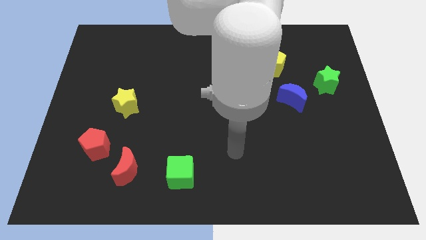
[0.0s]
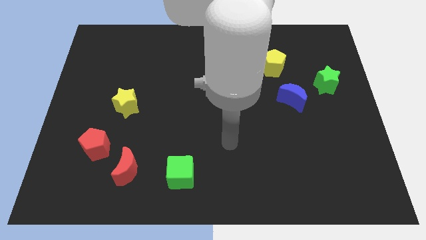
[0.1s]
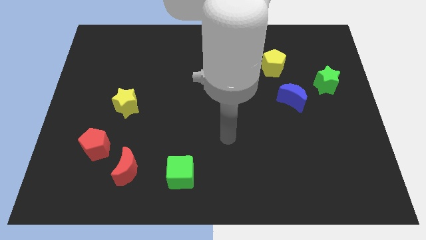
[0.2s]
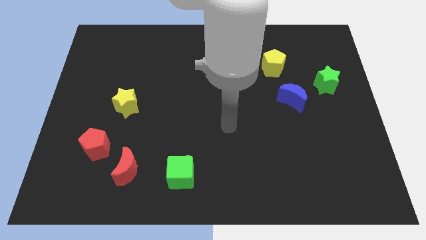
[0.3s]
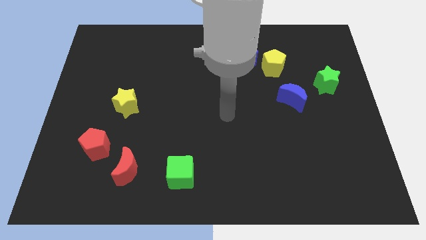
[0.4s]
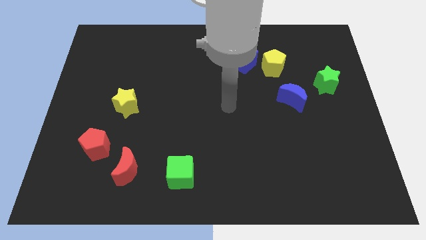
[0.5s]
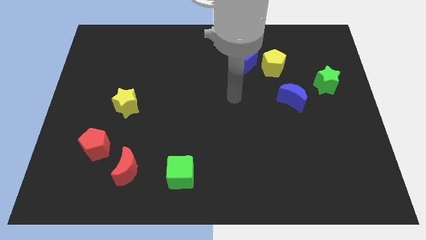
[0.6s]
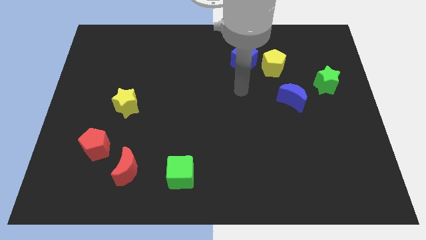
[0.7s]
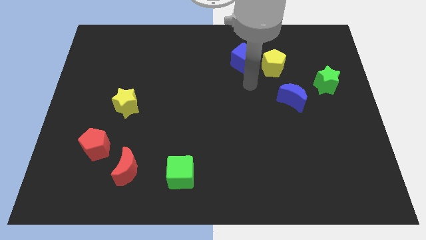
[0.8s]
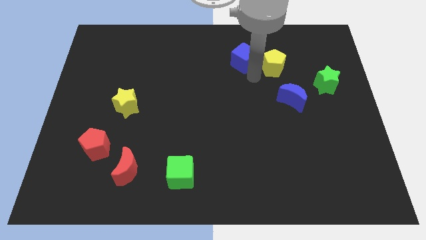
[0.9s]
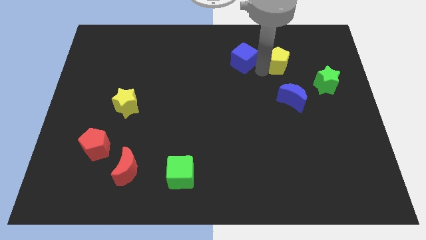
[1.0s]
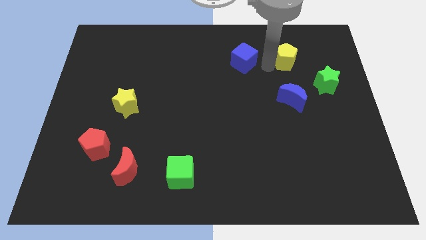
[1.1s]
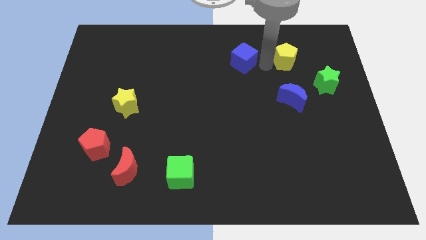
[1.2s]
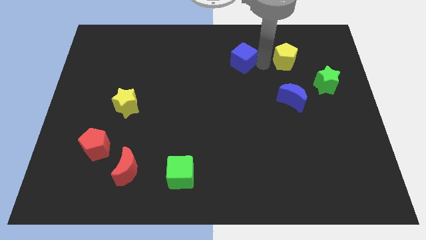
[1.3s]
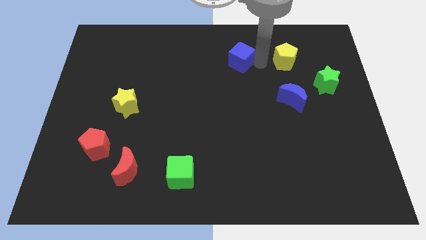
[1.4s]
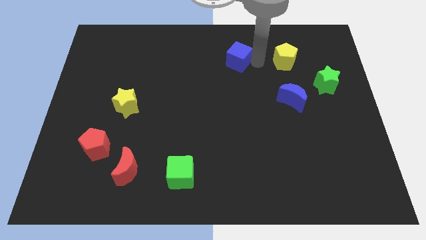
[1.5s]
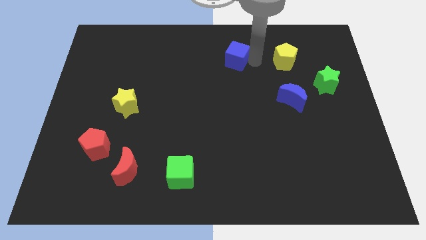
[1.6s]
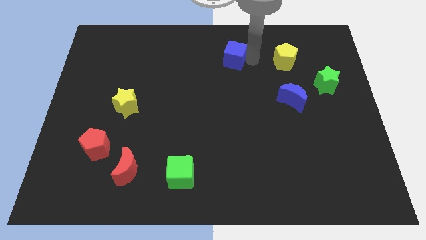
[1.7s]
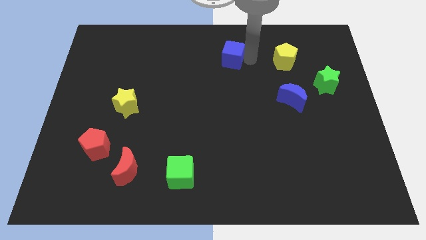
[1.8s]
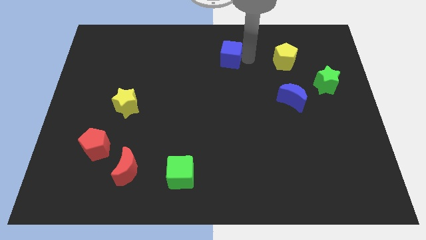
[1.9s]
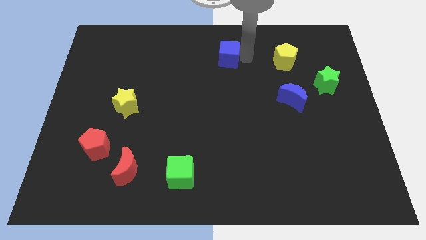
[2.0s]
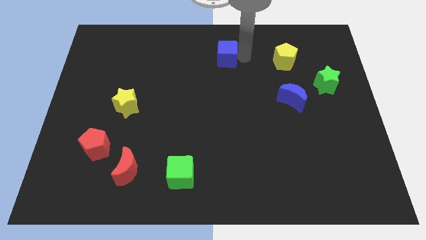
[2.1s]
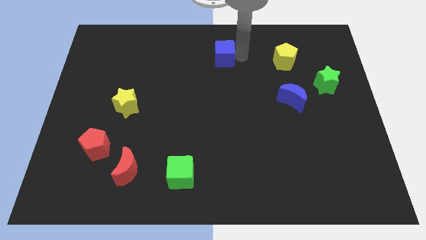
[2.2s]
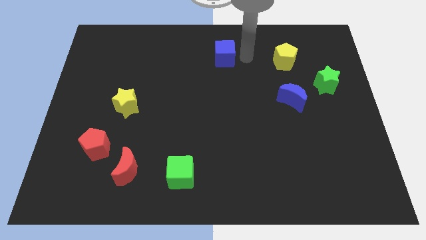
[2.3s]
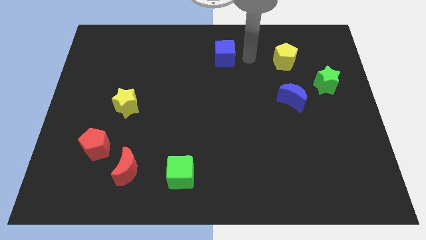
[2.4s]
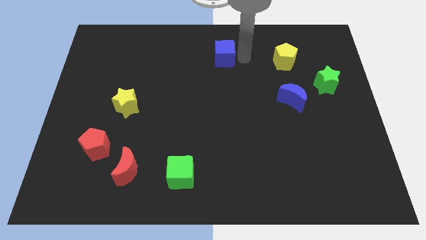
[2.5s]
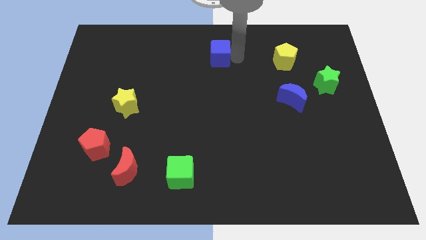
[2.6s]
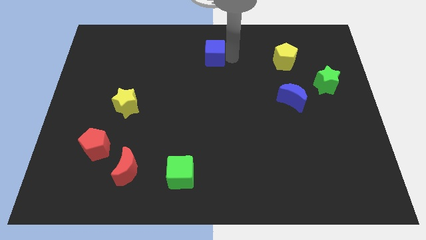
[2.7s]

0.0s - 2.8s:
move the blue cube slightly to the left

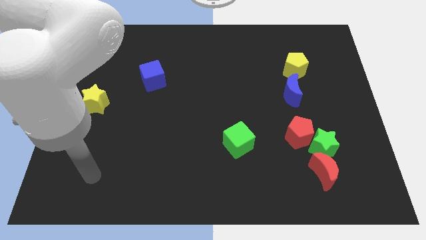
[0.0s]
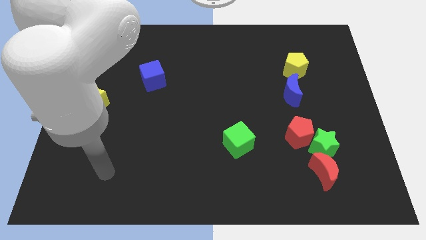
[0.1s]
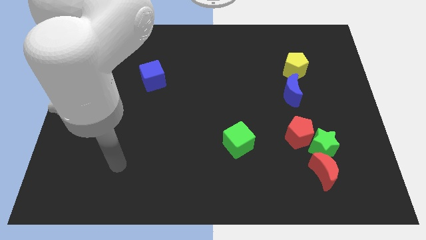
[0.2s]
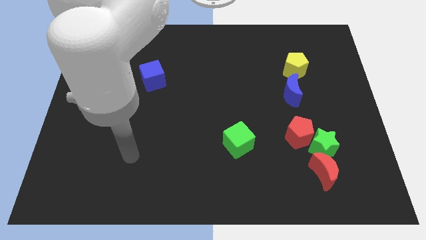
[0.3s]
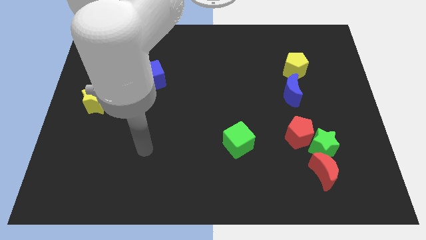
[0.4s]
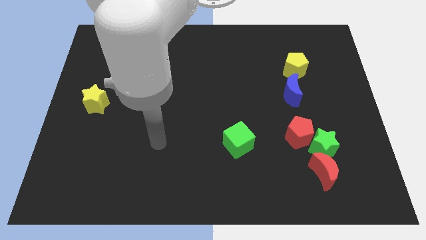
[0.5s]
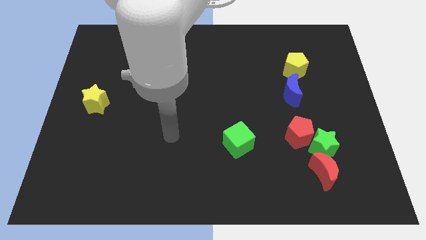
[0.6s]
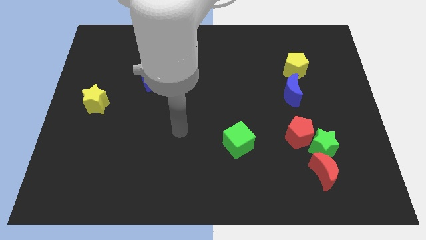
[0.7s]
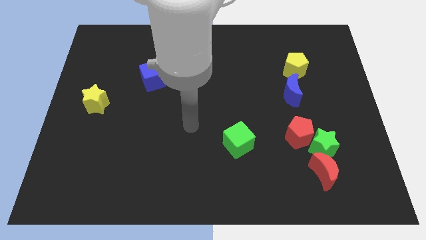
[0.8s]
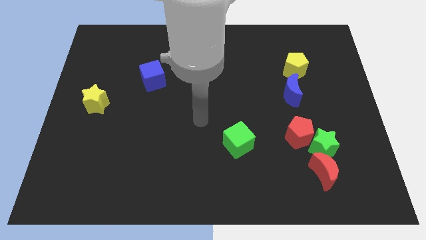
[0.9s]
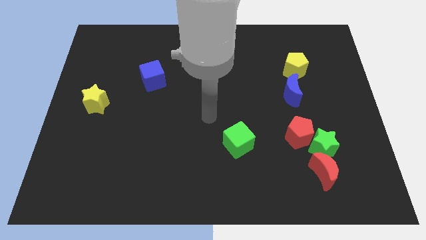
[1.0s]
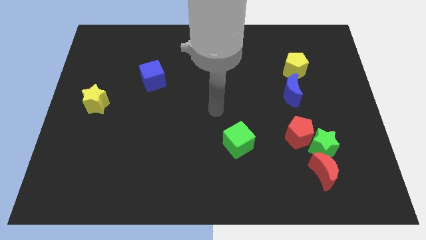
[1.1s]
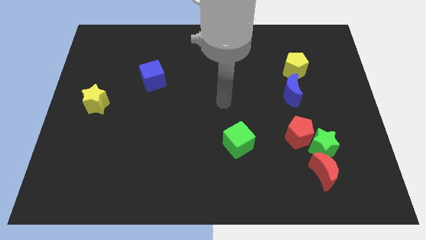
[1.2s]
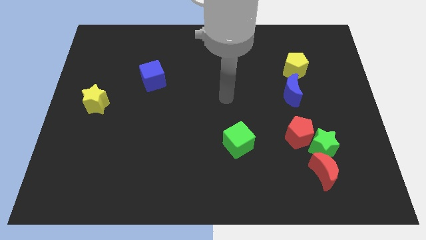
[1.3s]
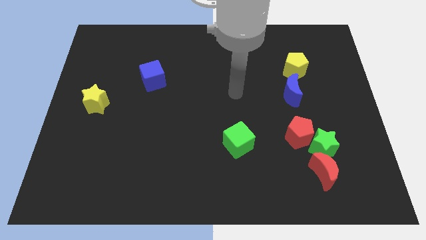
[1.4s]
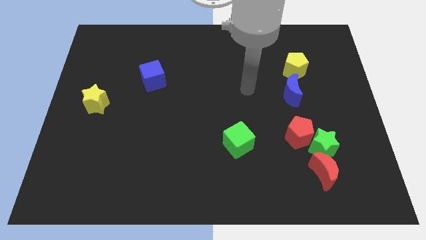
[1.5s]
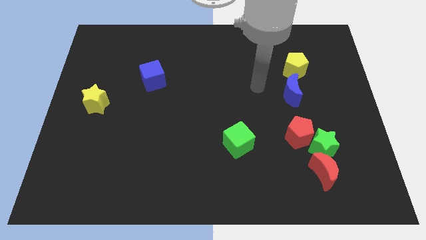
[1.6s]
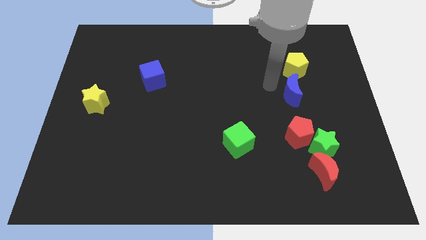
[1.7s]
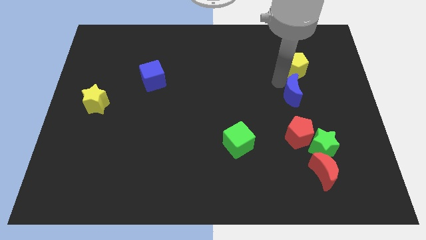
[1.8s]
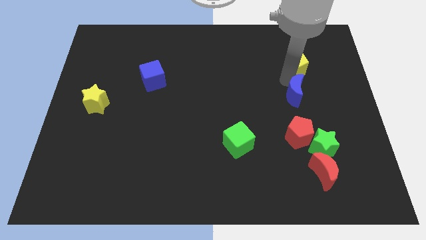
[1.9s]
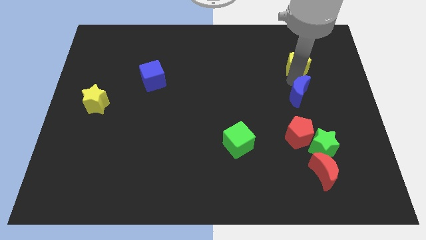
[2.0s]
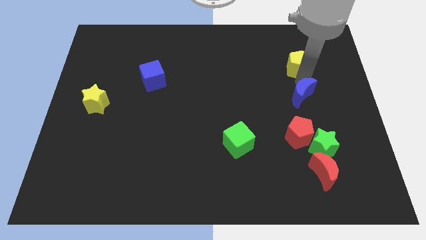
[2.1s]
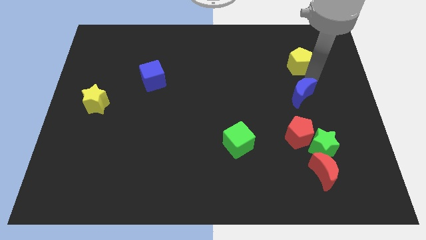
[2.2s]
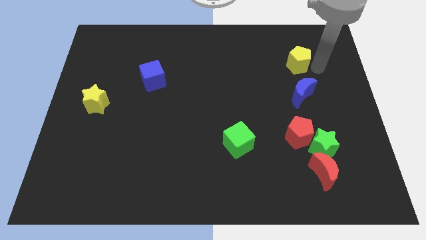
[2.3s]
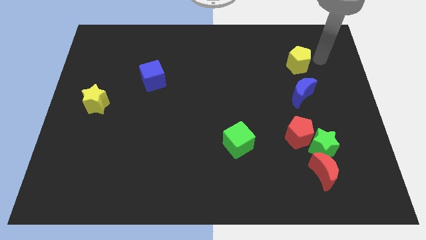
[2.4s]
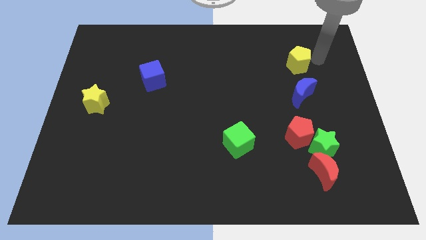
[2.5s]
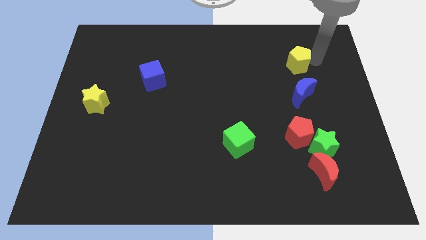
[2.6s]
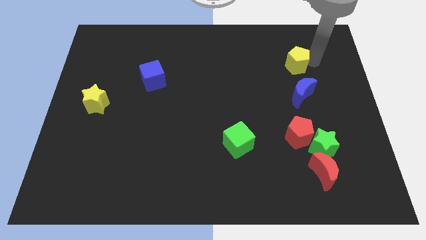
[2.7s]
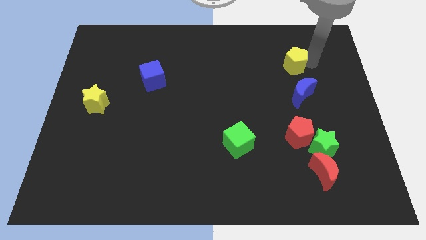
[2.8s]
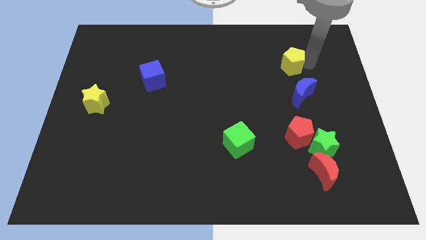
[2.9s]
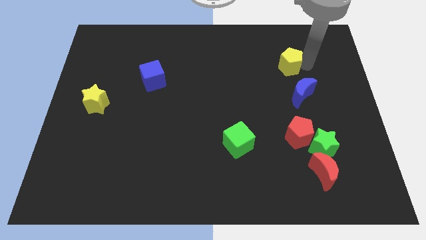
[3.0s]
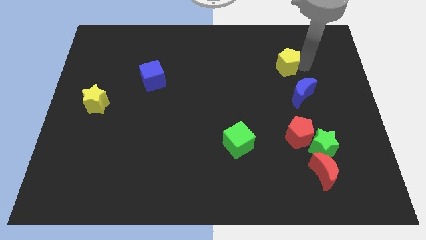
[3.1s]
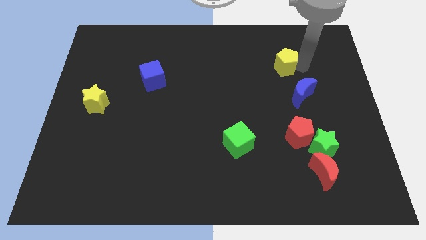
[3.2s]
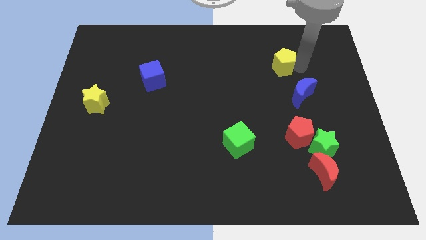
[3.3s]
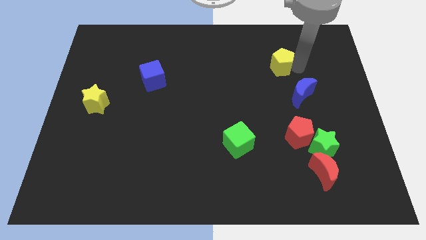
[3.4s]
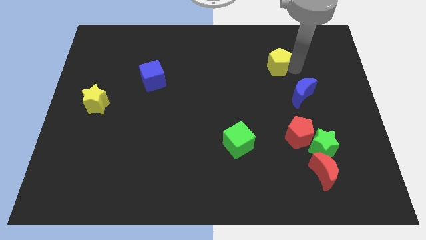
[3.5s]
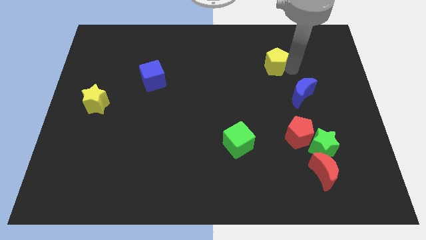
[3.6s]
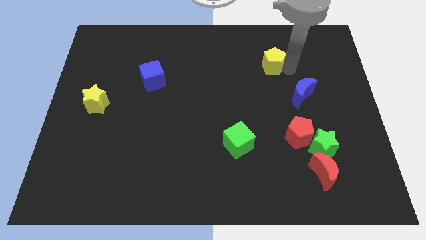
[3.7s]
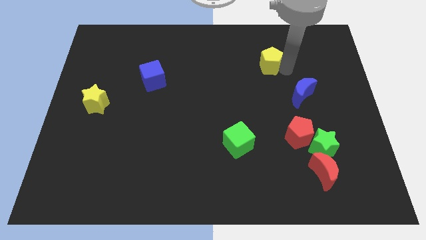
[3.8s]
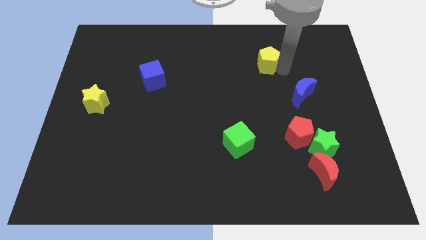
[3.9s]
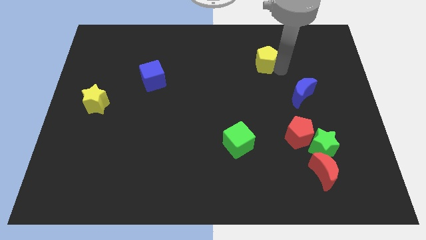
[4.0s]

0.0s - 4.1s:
slide the yellow pentagon somewhat left

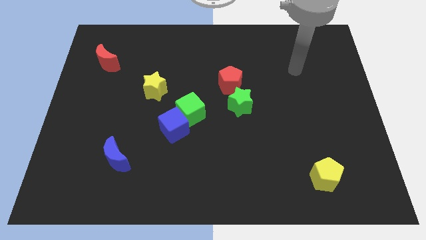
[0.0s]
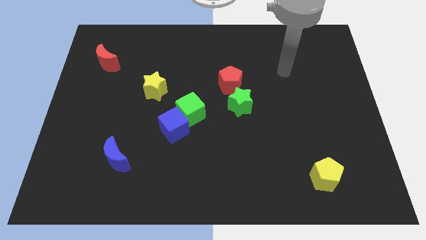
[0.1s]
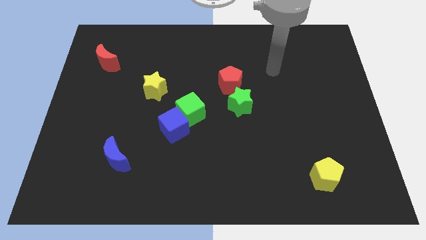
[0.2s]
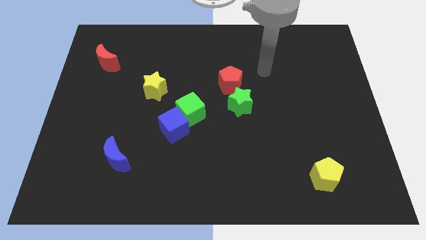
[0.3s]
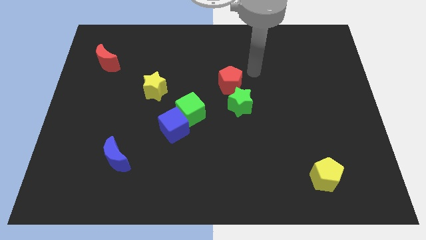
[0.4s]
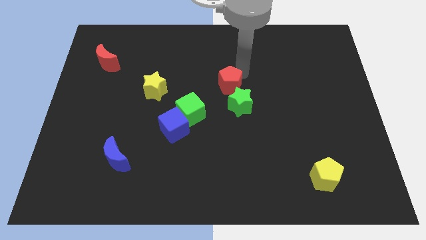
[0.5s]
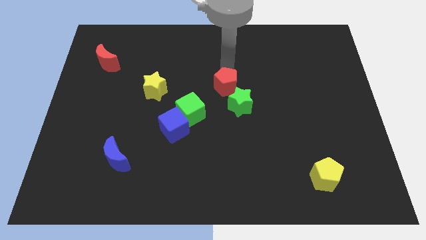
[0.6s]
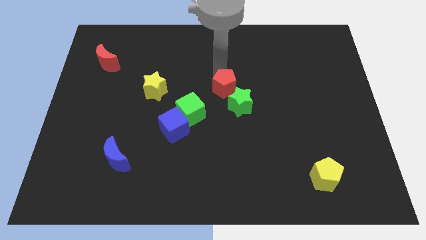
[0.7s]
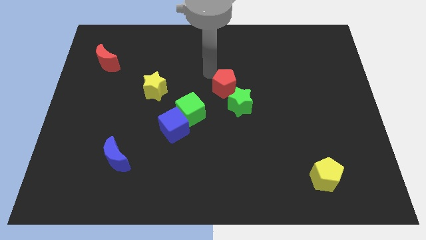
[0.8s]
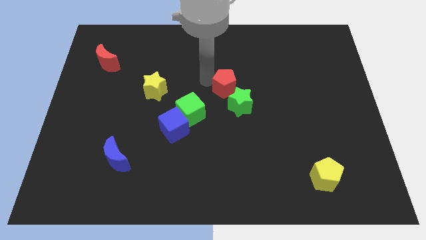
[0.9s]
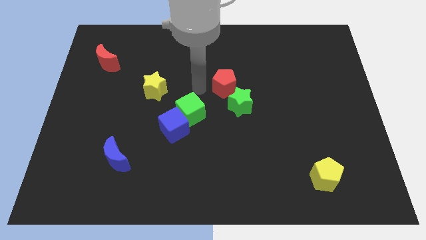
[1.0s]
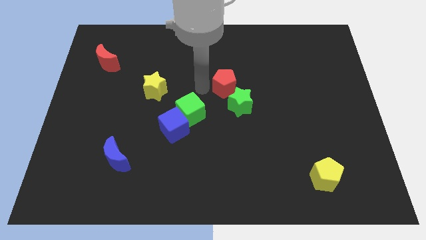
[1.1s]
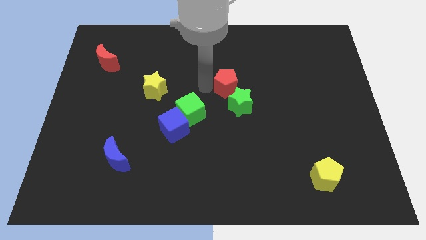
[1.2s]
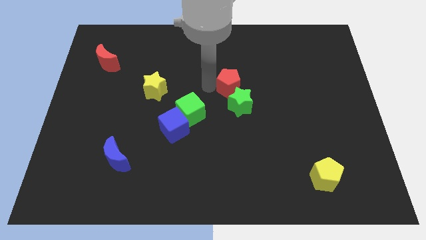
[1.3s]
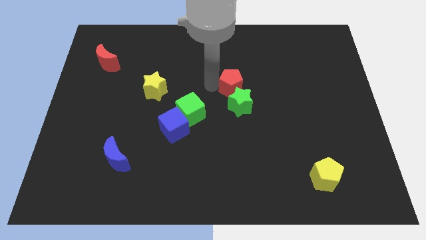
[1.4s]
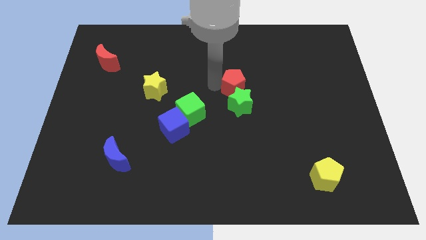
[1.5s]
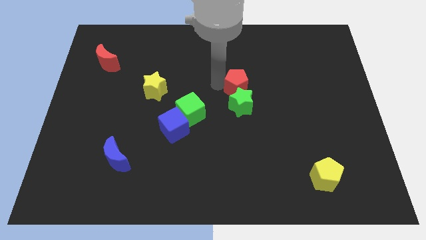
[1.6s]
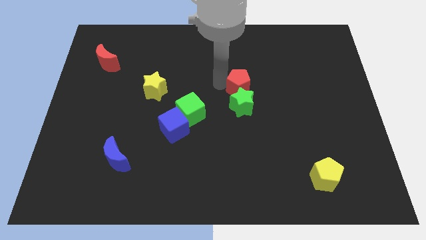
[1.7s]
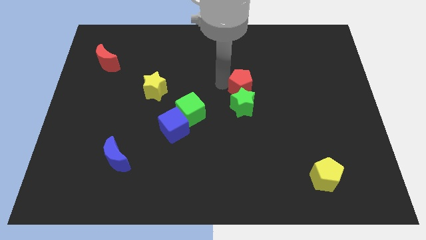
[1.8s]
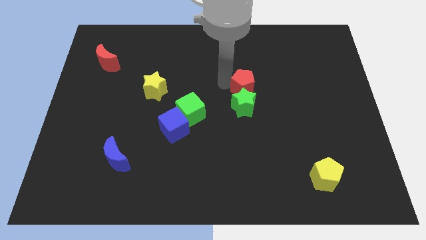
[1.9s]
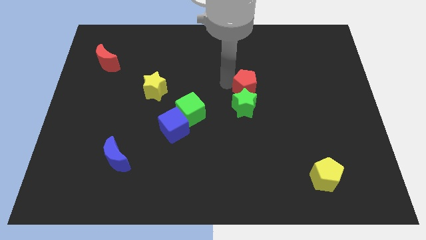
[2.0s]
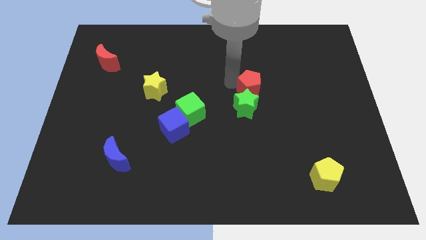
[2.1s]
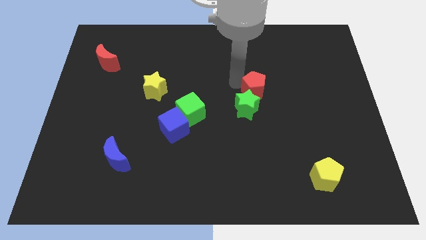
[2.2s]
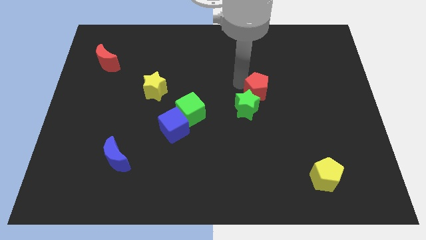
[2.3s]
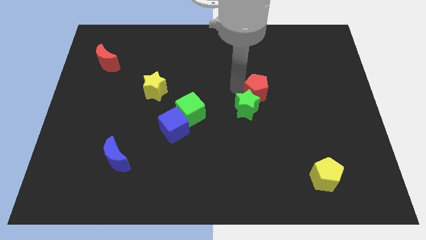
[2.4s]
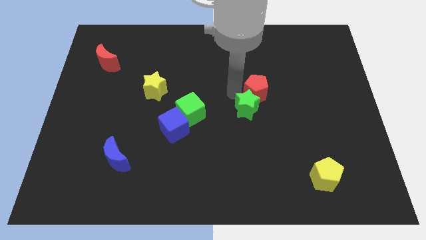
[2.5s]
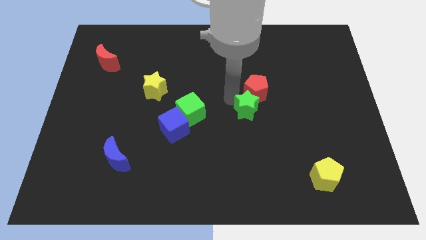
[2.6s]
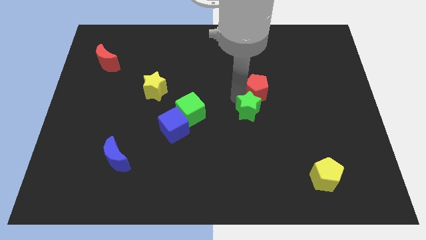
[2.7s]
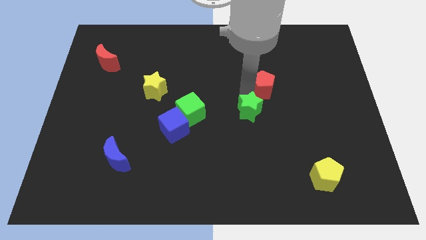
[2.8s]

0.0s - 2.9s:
slightly move the red pentagon to the right
